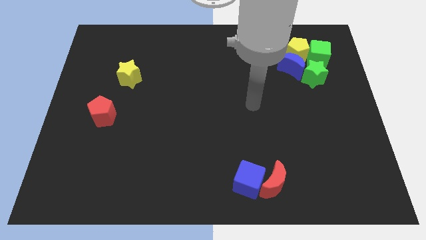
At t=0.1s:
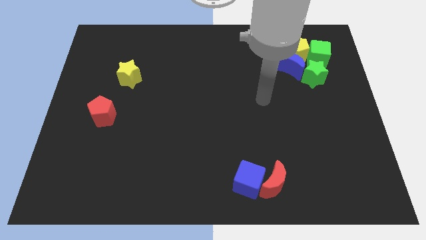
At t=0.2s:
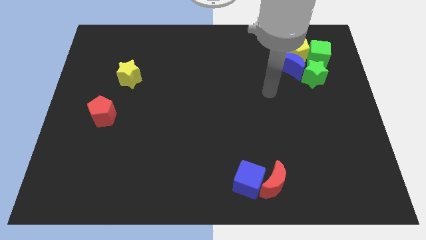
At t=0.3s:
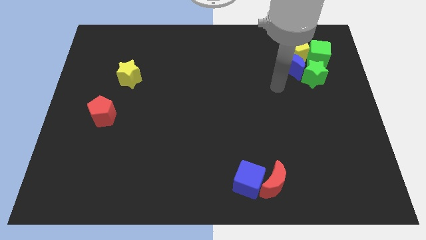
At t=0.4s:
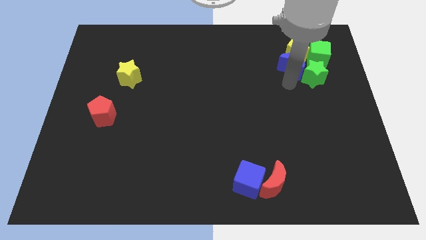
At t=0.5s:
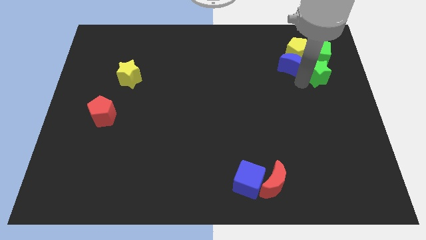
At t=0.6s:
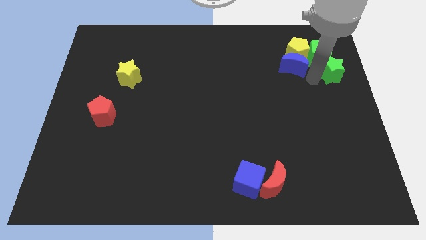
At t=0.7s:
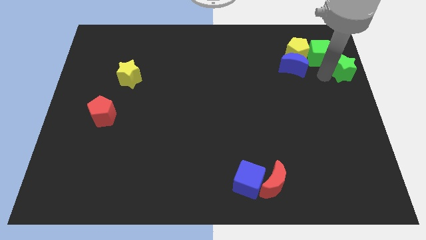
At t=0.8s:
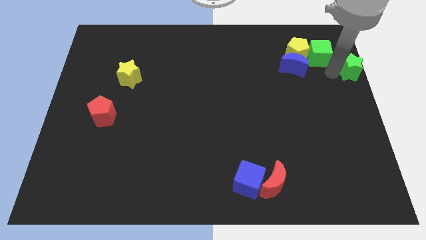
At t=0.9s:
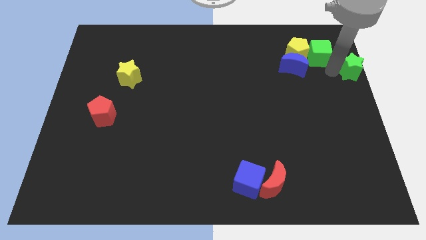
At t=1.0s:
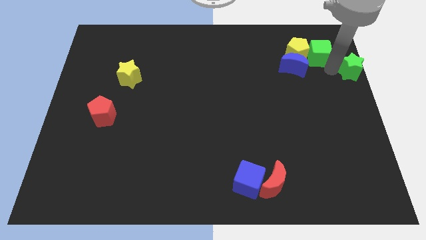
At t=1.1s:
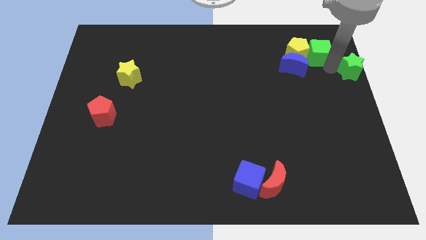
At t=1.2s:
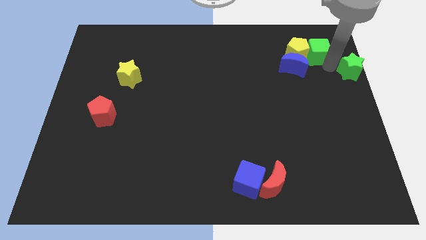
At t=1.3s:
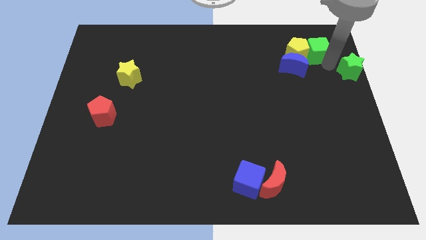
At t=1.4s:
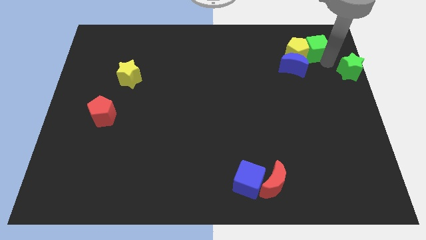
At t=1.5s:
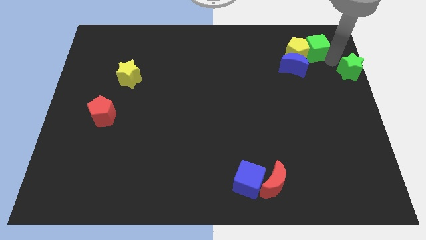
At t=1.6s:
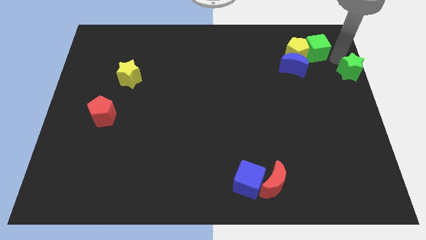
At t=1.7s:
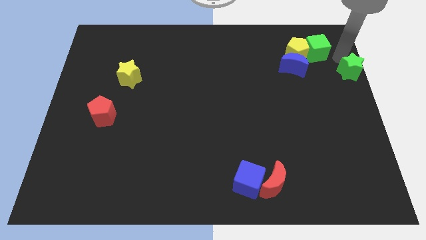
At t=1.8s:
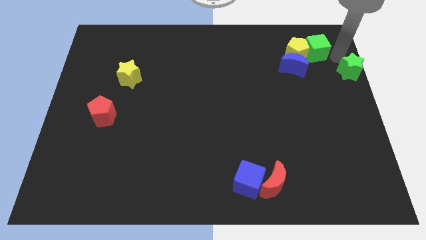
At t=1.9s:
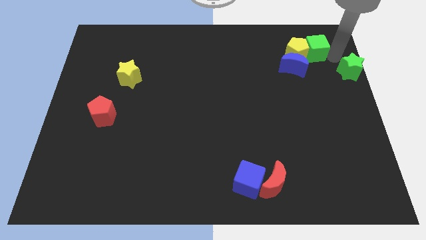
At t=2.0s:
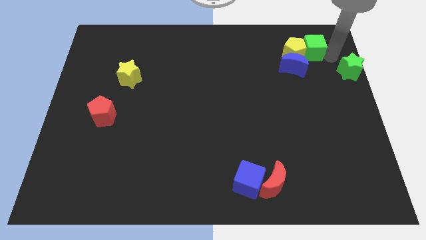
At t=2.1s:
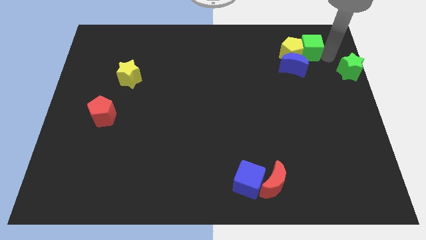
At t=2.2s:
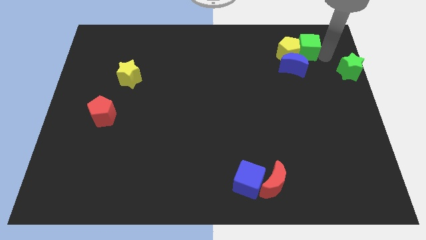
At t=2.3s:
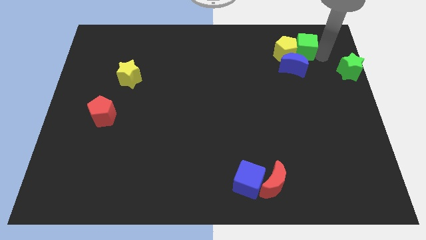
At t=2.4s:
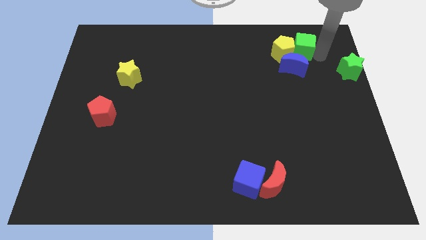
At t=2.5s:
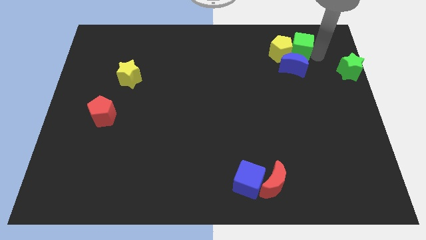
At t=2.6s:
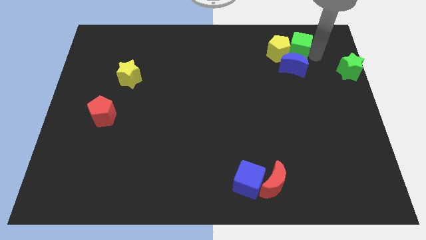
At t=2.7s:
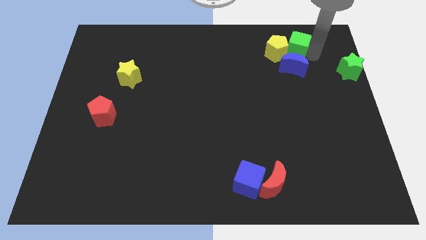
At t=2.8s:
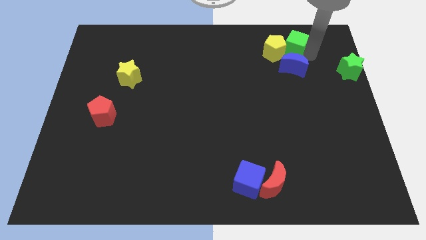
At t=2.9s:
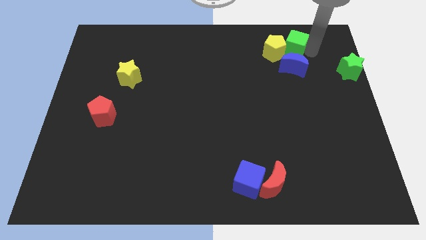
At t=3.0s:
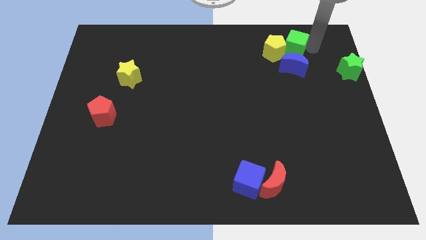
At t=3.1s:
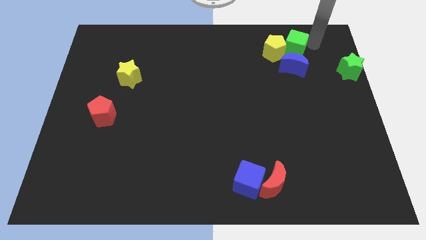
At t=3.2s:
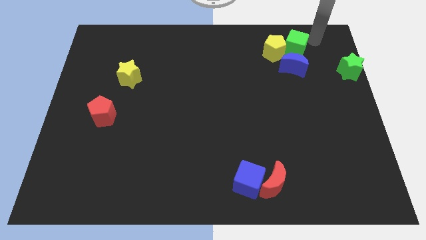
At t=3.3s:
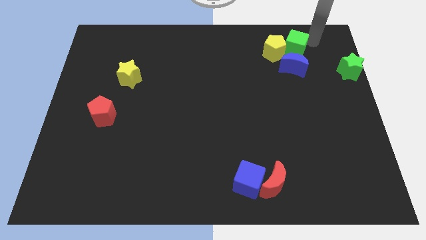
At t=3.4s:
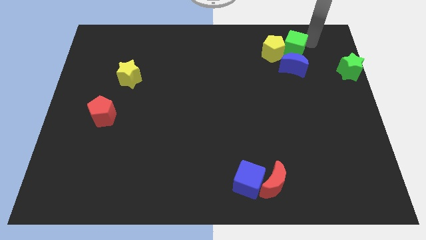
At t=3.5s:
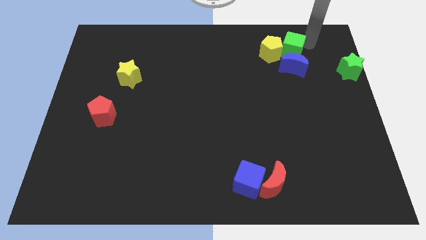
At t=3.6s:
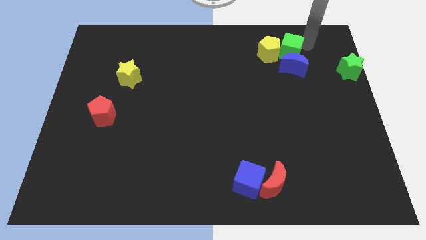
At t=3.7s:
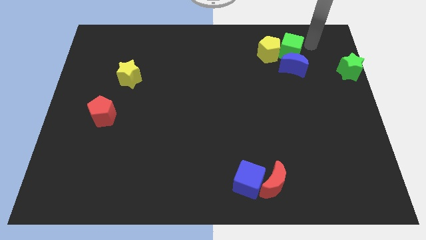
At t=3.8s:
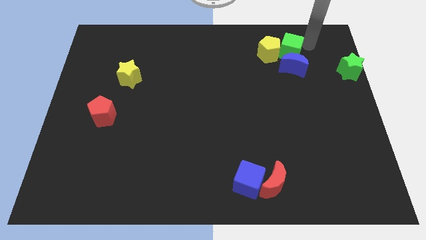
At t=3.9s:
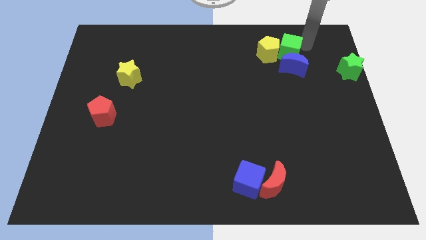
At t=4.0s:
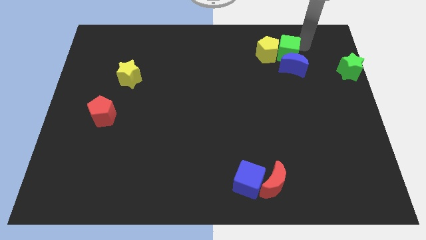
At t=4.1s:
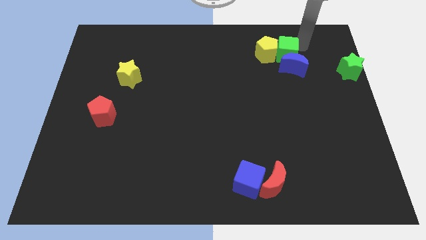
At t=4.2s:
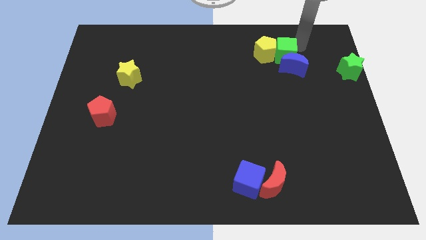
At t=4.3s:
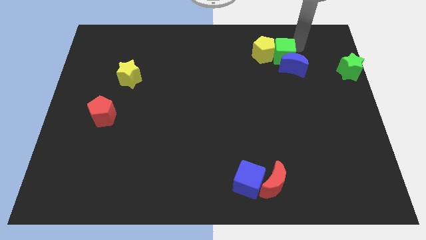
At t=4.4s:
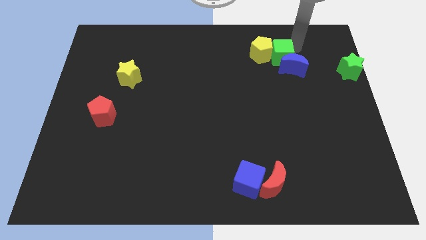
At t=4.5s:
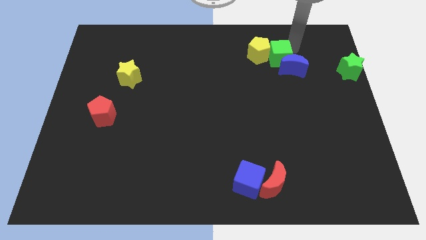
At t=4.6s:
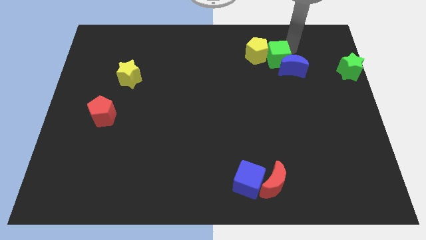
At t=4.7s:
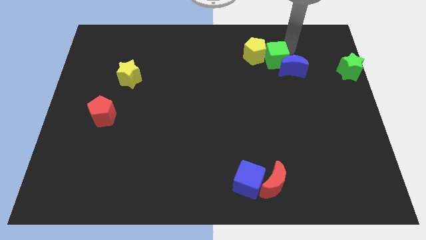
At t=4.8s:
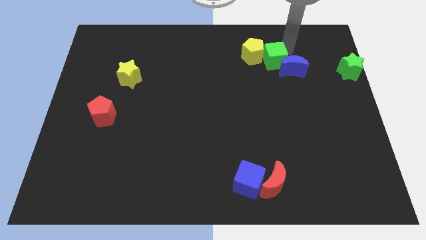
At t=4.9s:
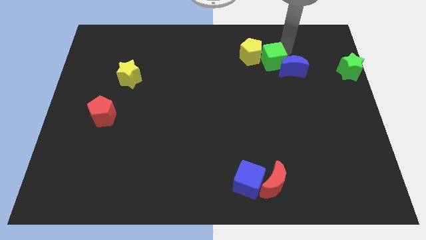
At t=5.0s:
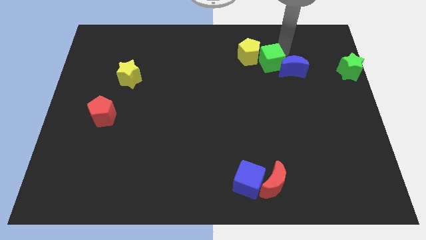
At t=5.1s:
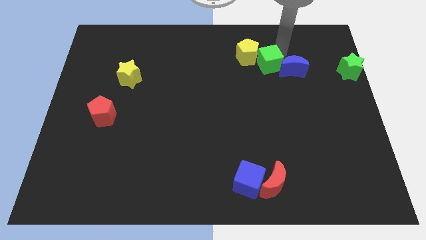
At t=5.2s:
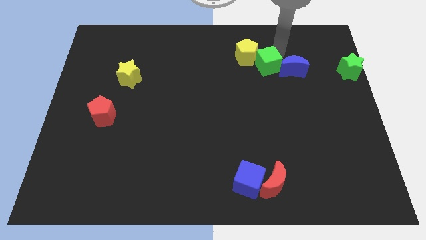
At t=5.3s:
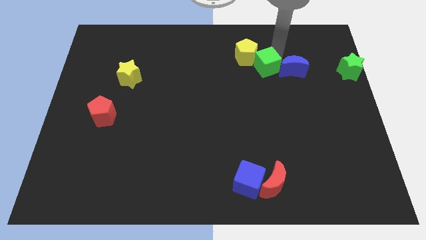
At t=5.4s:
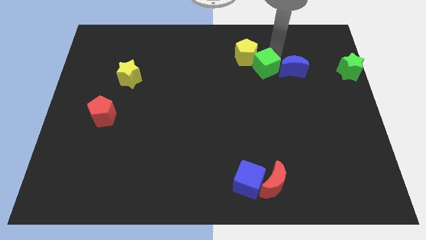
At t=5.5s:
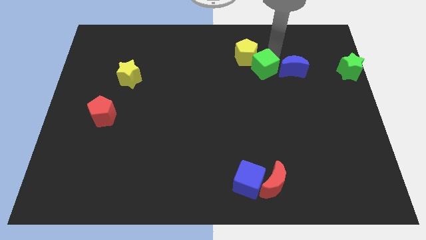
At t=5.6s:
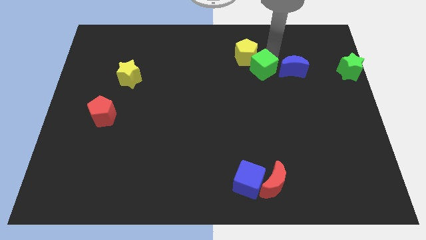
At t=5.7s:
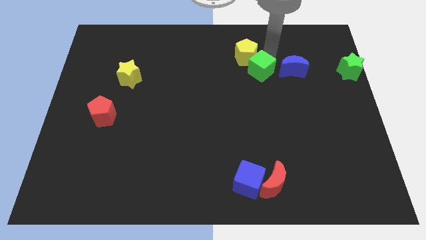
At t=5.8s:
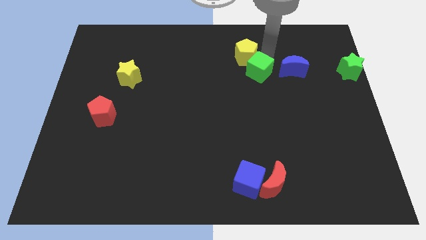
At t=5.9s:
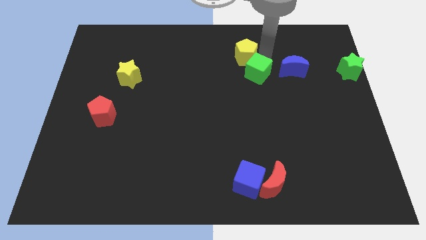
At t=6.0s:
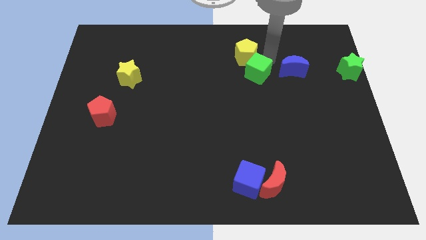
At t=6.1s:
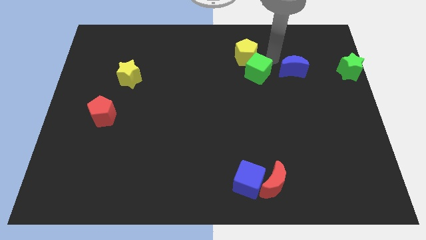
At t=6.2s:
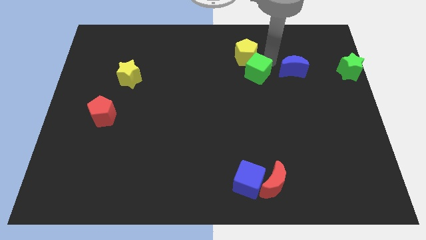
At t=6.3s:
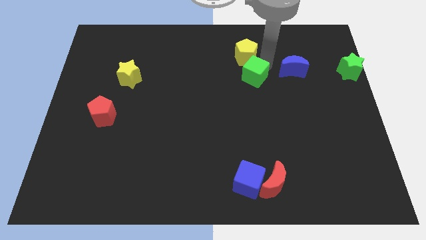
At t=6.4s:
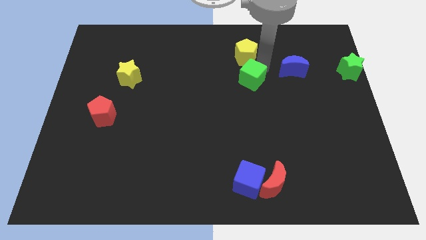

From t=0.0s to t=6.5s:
push the green cube to the center of the board

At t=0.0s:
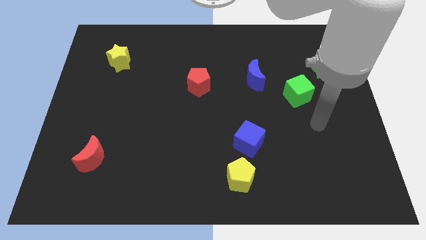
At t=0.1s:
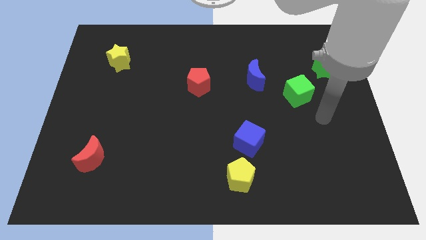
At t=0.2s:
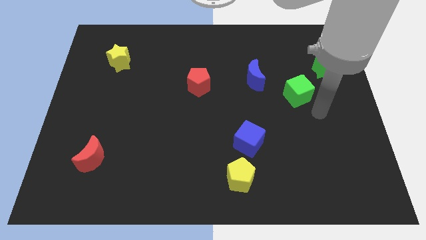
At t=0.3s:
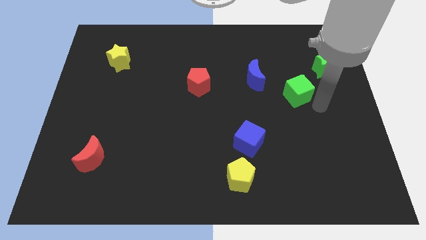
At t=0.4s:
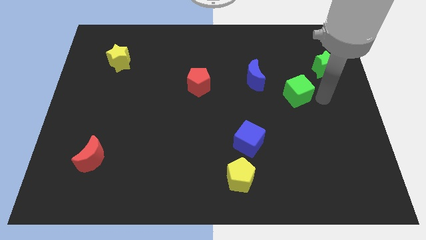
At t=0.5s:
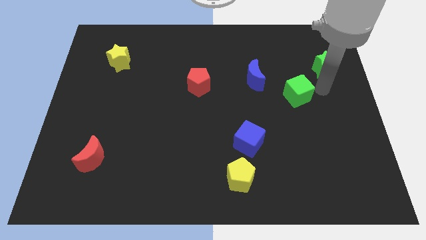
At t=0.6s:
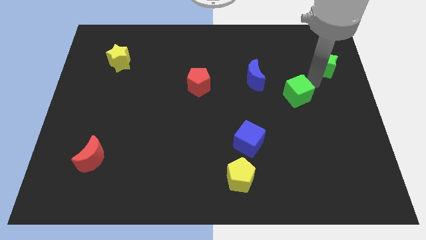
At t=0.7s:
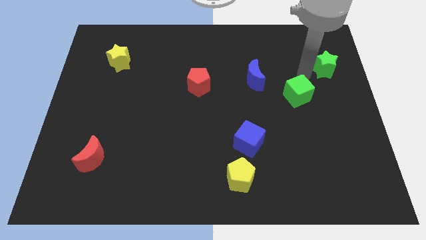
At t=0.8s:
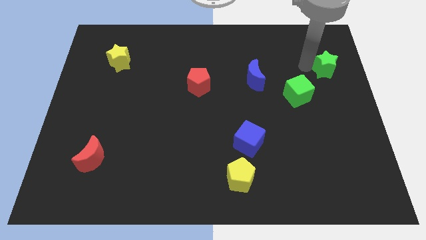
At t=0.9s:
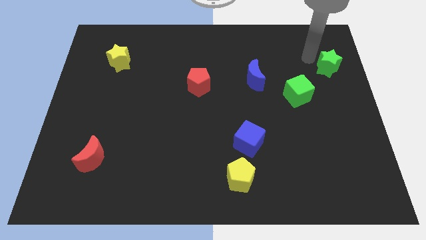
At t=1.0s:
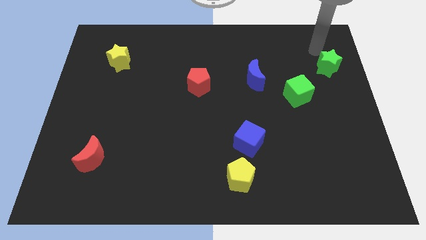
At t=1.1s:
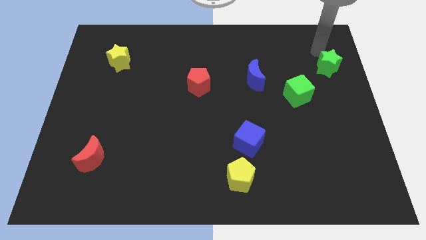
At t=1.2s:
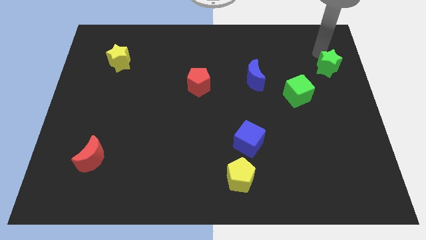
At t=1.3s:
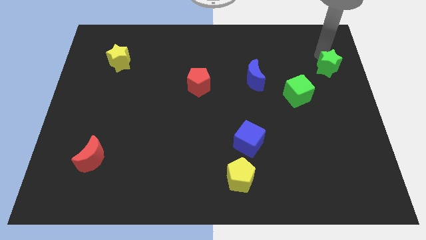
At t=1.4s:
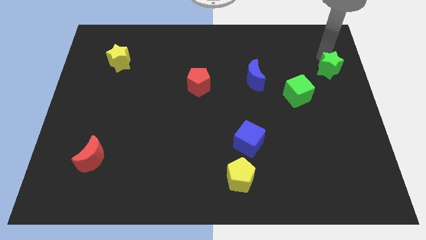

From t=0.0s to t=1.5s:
slide the green star to the right side of the board
